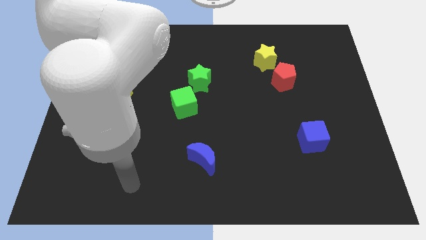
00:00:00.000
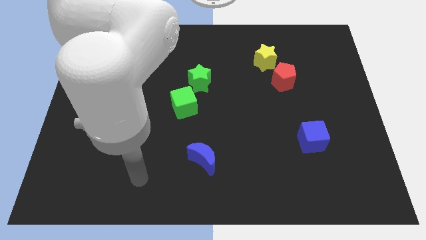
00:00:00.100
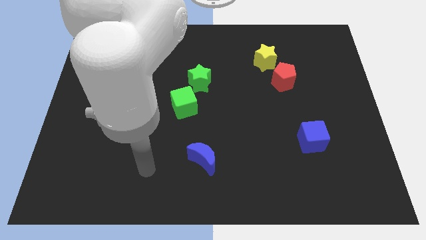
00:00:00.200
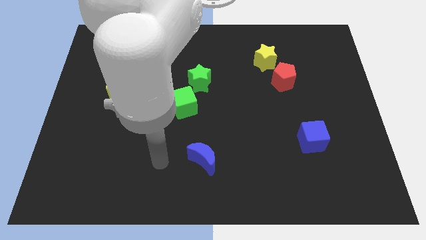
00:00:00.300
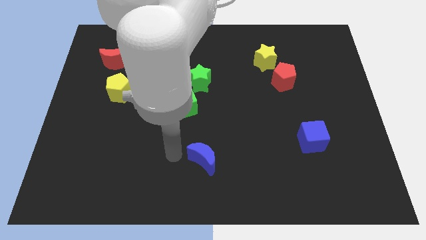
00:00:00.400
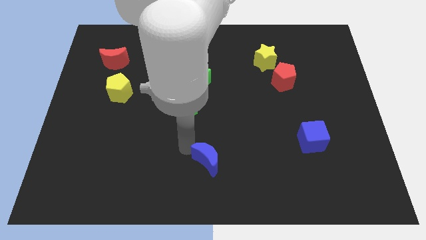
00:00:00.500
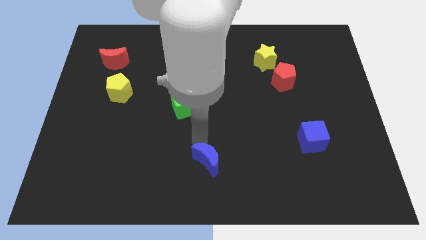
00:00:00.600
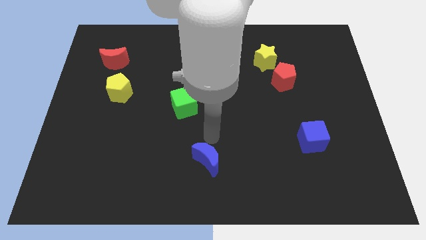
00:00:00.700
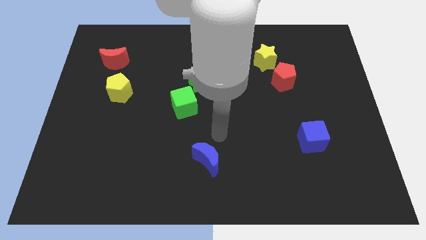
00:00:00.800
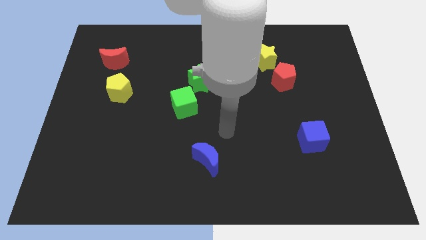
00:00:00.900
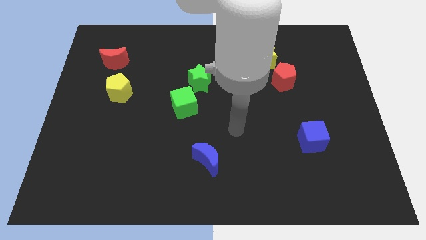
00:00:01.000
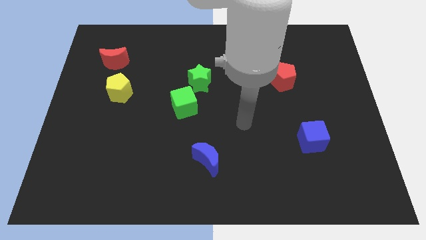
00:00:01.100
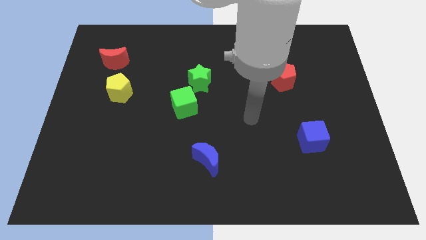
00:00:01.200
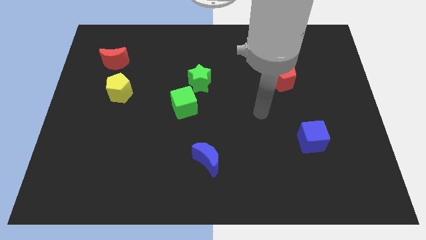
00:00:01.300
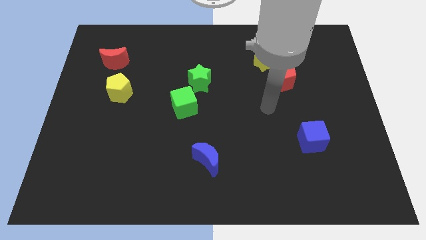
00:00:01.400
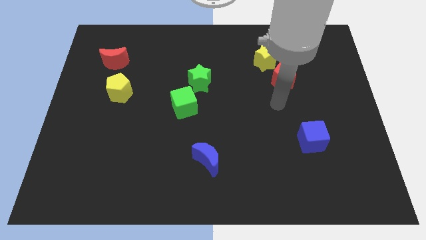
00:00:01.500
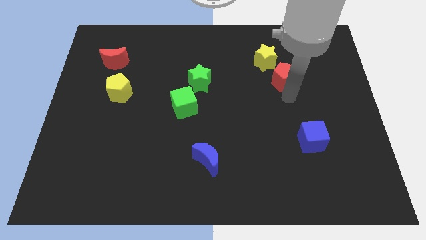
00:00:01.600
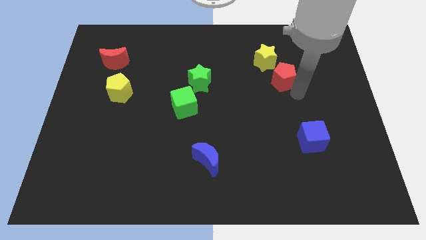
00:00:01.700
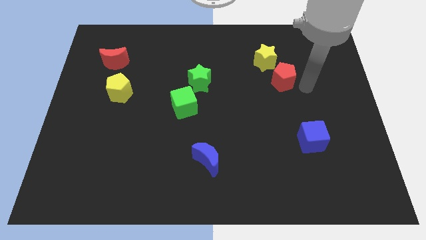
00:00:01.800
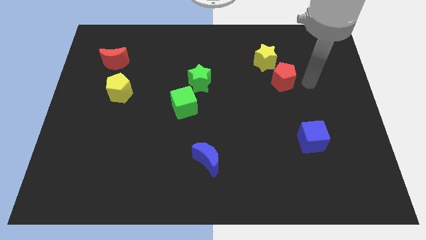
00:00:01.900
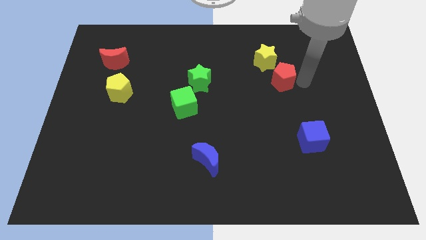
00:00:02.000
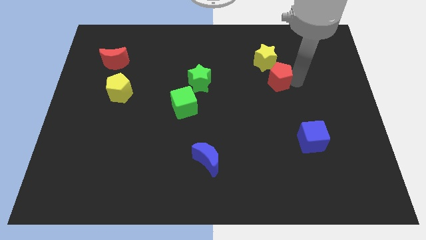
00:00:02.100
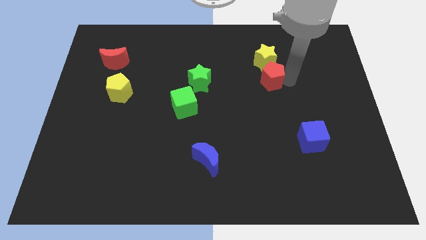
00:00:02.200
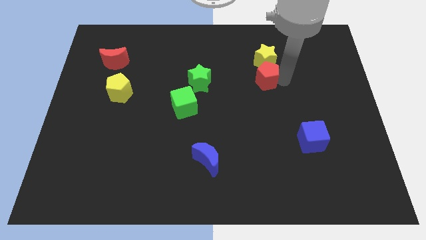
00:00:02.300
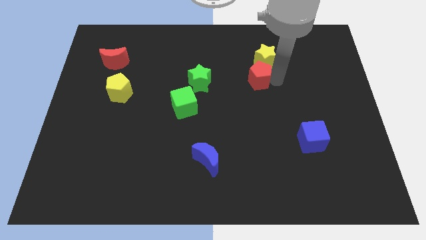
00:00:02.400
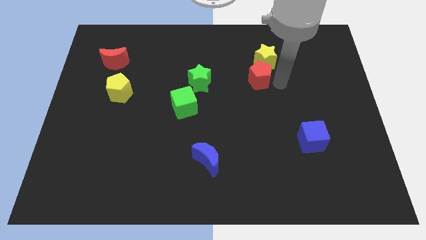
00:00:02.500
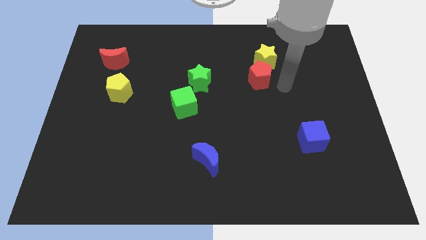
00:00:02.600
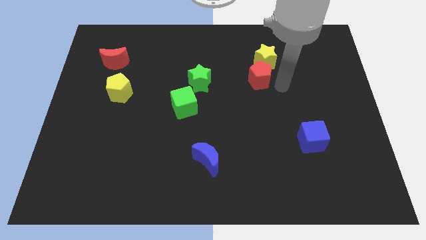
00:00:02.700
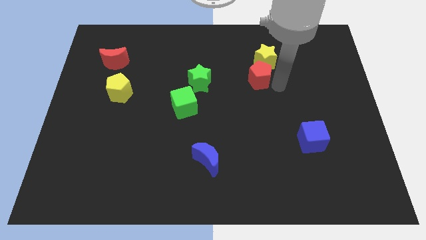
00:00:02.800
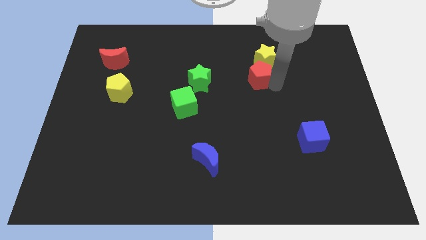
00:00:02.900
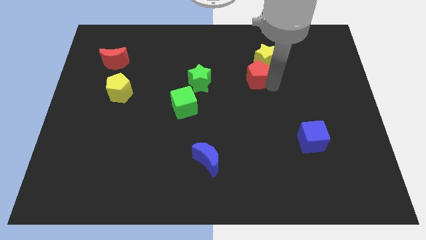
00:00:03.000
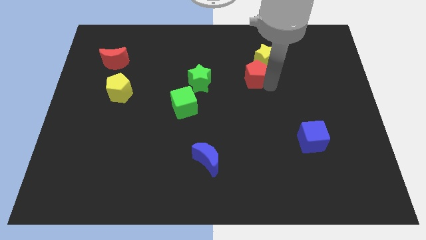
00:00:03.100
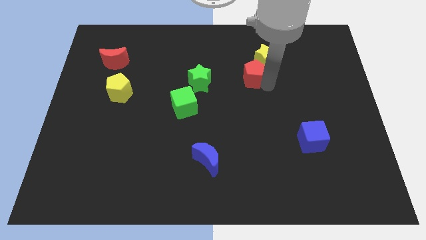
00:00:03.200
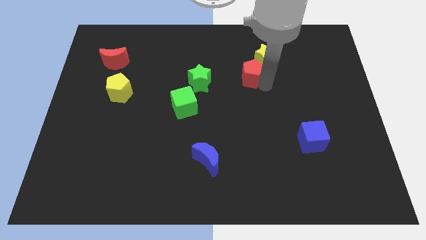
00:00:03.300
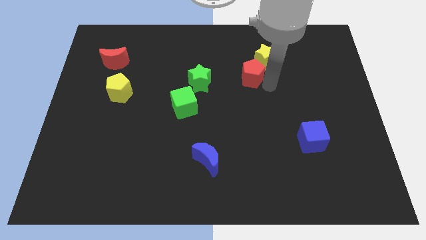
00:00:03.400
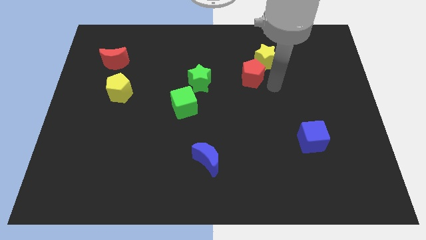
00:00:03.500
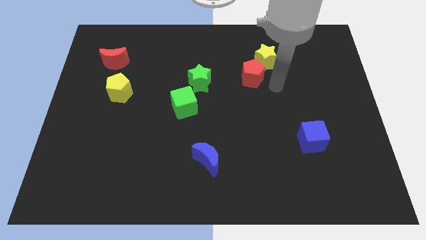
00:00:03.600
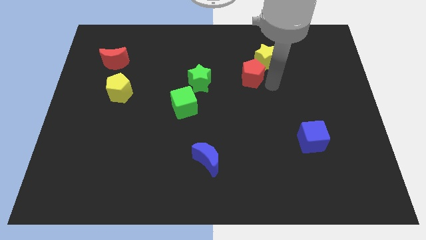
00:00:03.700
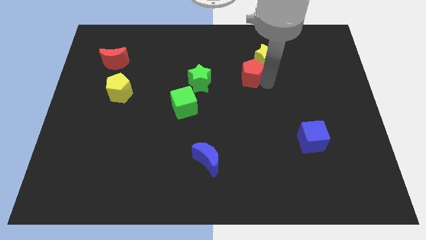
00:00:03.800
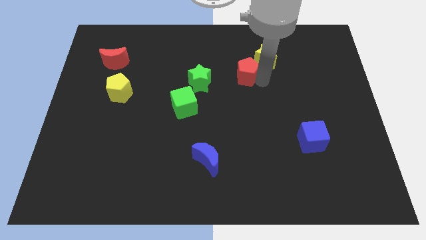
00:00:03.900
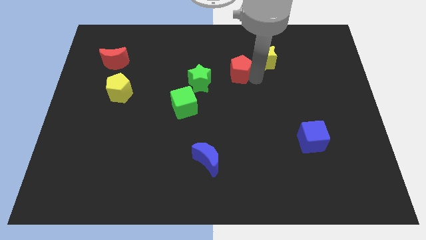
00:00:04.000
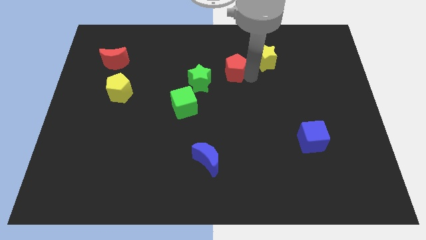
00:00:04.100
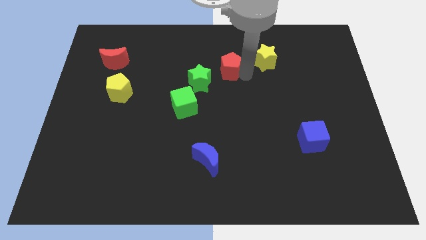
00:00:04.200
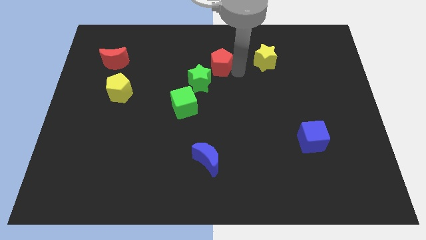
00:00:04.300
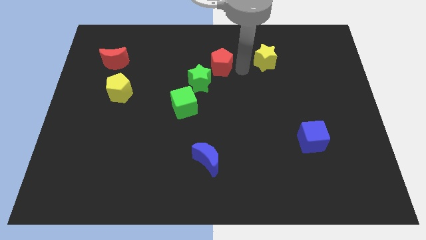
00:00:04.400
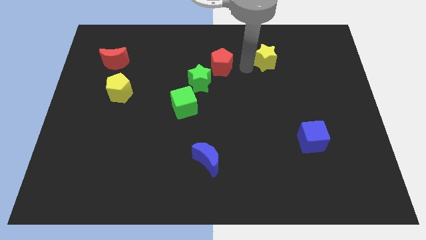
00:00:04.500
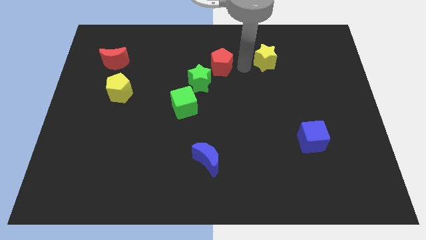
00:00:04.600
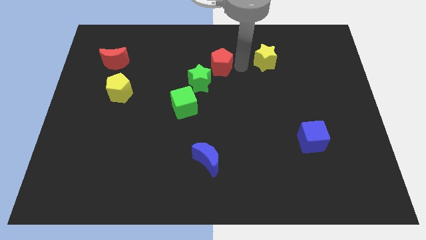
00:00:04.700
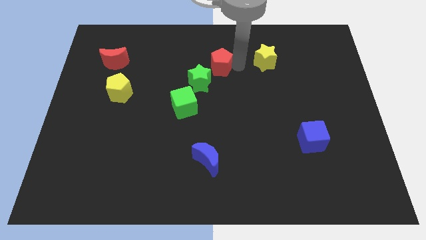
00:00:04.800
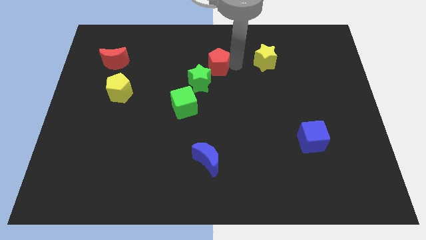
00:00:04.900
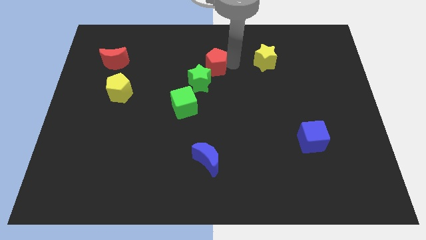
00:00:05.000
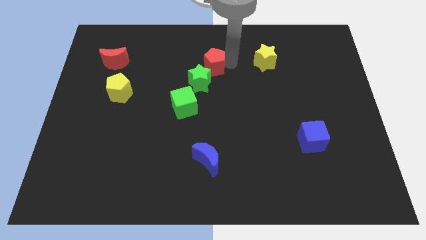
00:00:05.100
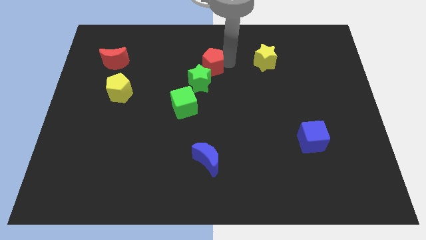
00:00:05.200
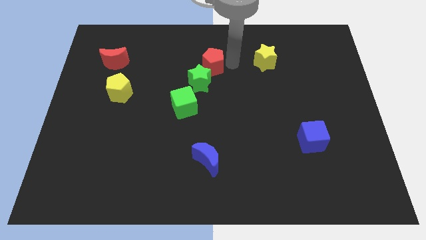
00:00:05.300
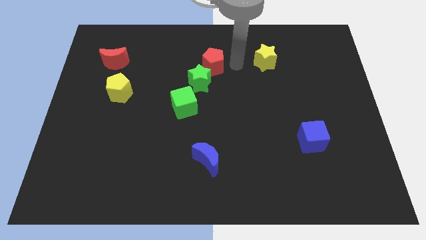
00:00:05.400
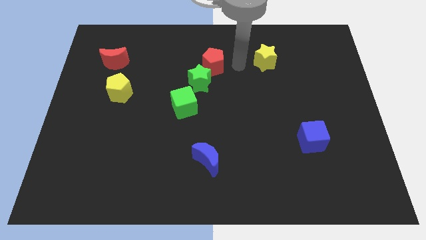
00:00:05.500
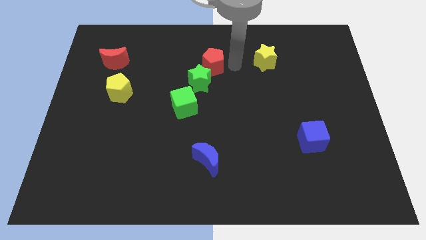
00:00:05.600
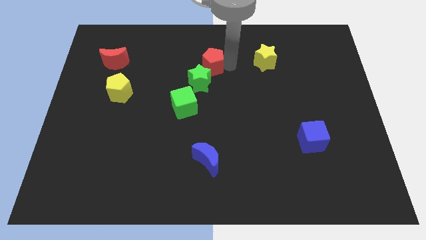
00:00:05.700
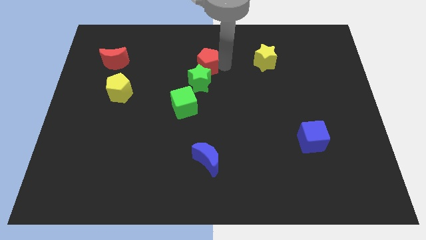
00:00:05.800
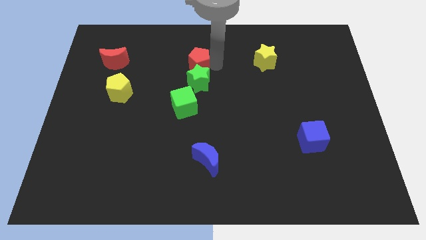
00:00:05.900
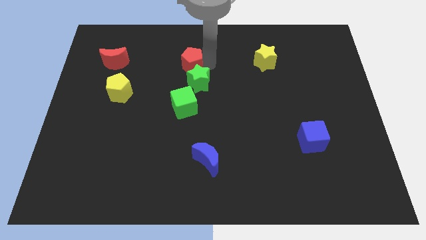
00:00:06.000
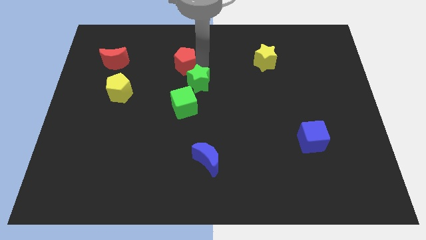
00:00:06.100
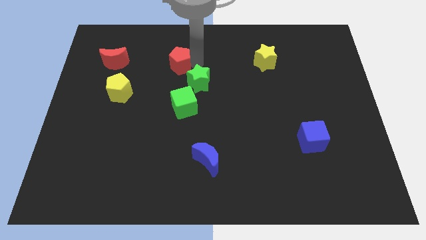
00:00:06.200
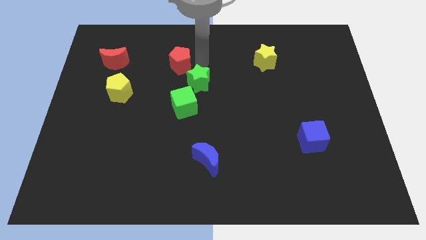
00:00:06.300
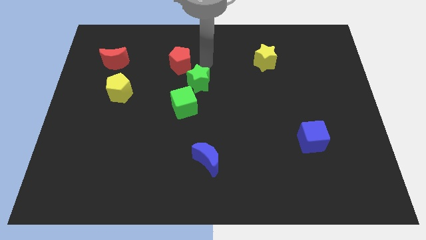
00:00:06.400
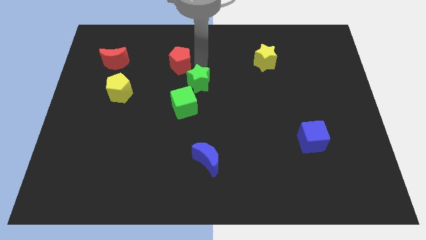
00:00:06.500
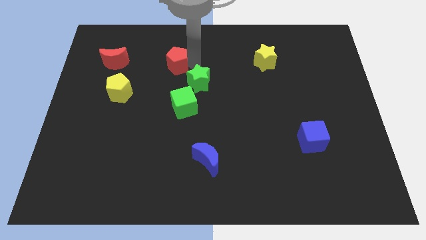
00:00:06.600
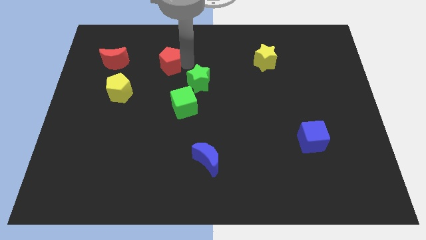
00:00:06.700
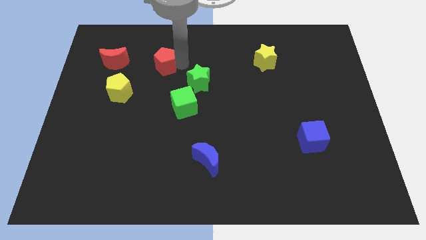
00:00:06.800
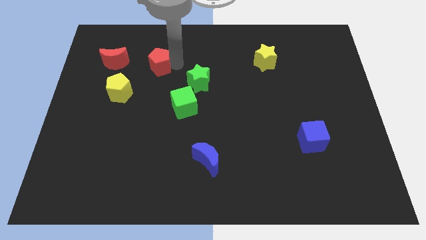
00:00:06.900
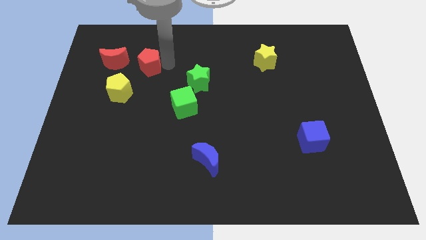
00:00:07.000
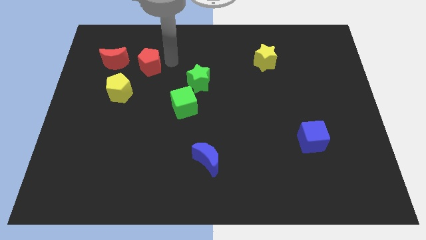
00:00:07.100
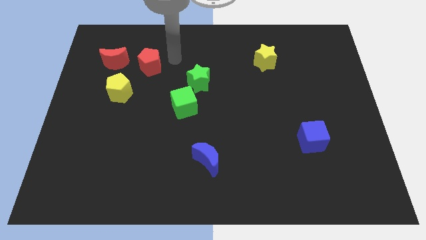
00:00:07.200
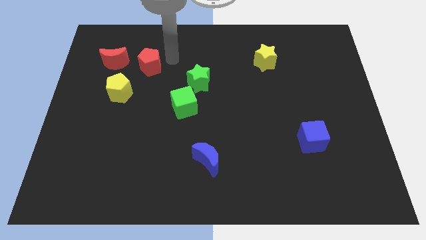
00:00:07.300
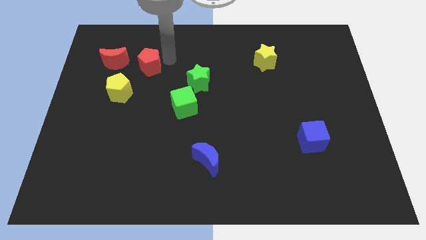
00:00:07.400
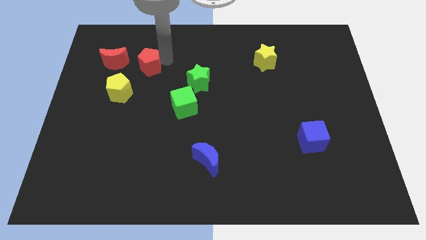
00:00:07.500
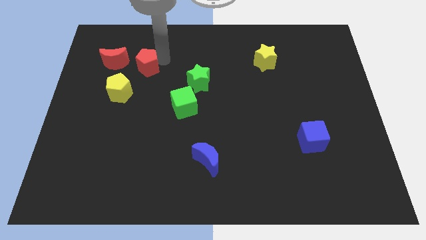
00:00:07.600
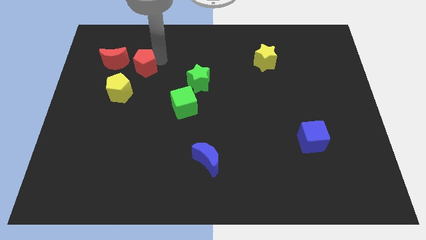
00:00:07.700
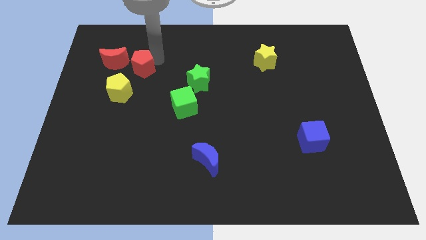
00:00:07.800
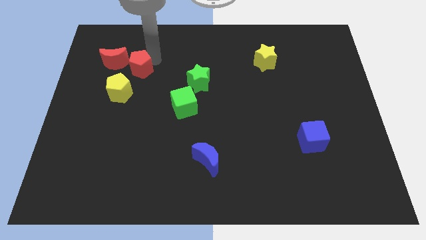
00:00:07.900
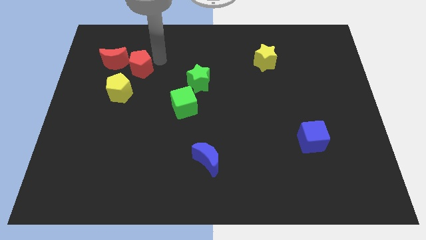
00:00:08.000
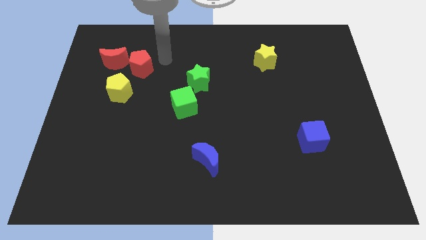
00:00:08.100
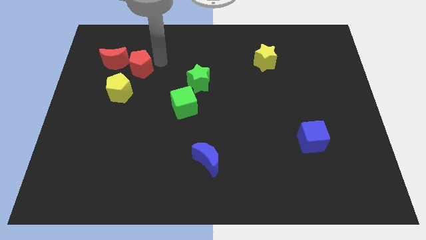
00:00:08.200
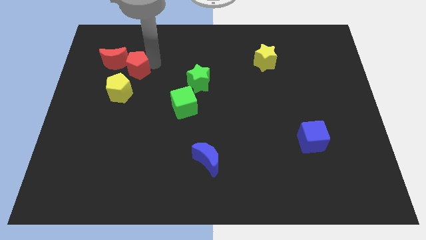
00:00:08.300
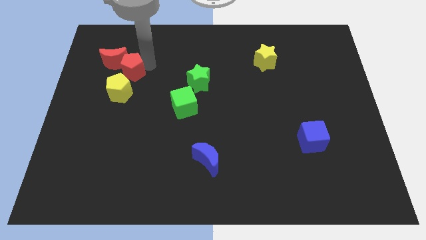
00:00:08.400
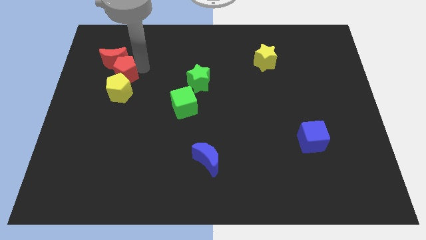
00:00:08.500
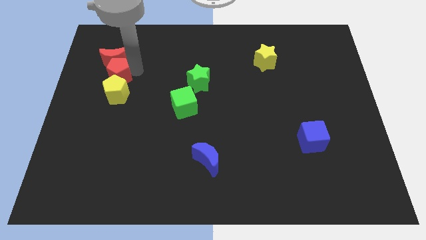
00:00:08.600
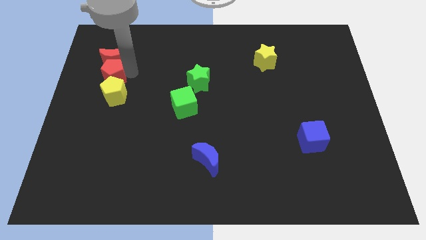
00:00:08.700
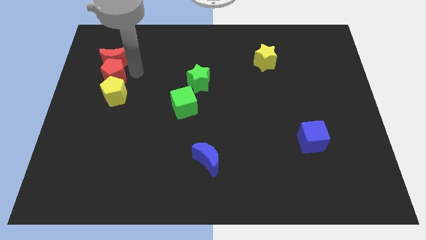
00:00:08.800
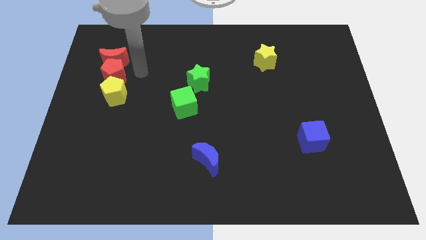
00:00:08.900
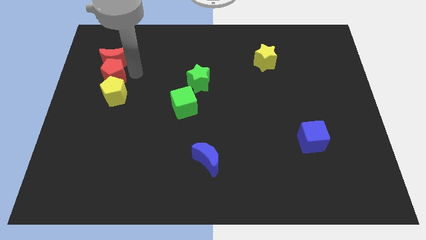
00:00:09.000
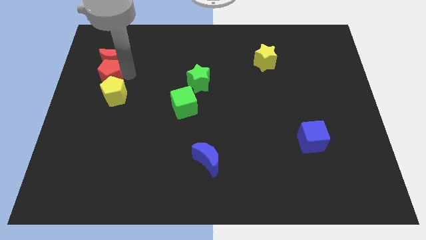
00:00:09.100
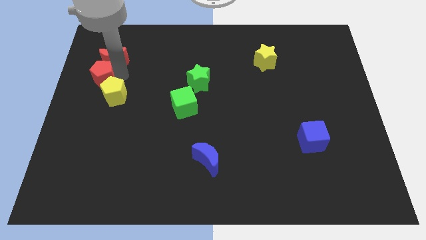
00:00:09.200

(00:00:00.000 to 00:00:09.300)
move the red pentagon to the left side of the board
